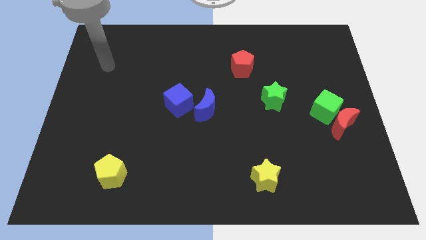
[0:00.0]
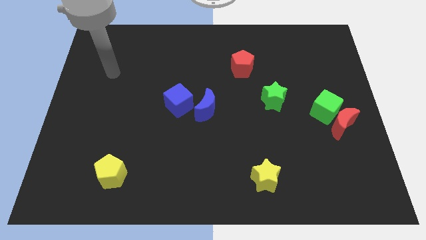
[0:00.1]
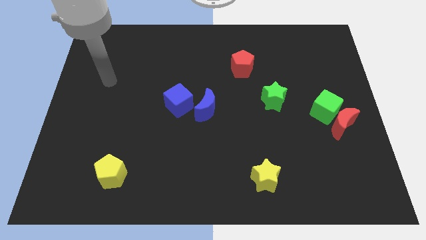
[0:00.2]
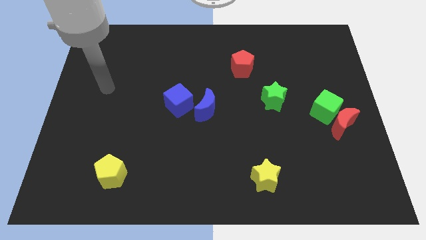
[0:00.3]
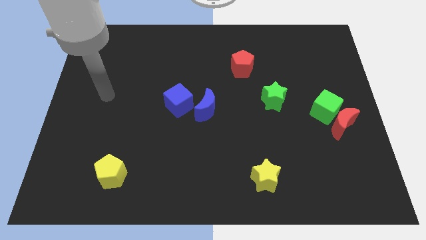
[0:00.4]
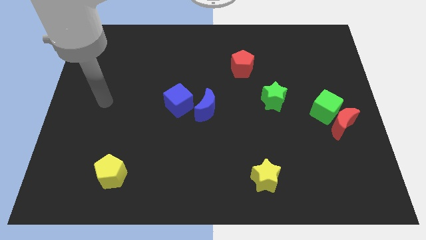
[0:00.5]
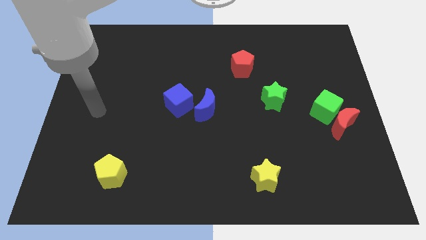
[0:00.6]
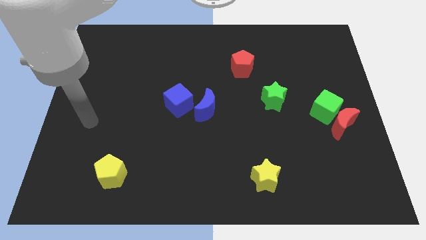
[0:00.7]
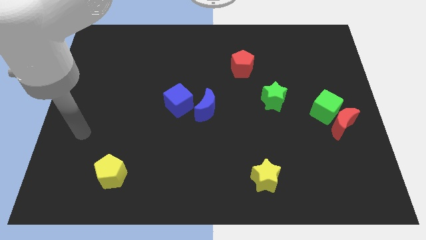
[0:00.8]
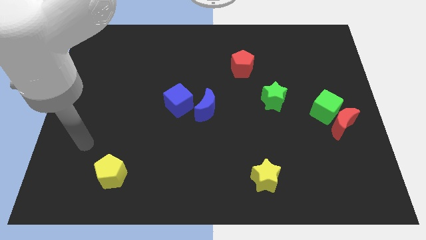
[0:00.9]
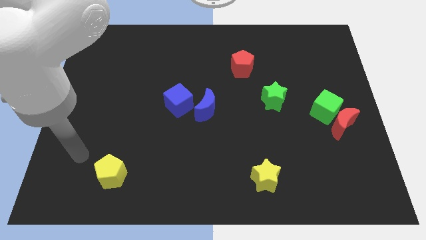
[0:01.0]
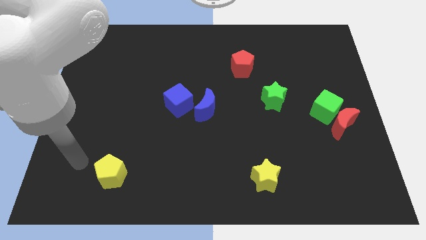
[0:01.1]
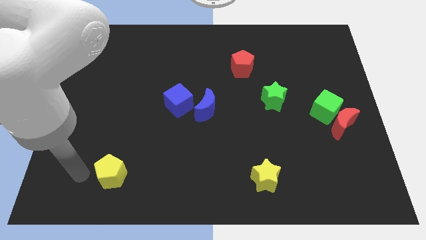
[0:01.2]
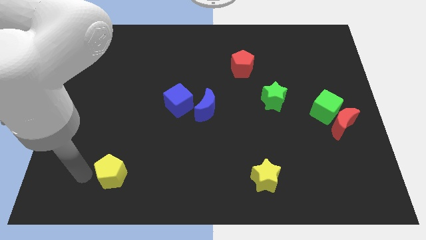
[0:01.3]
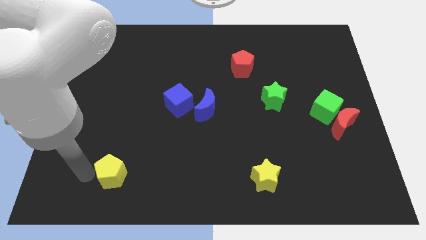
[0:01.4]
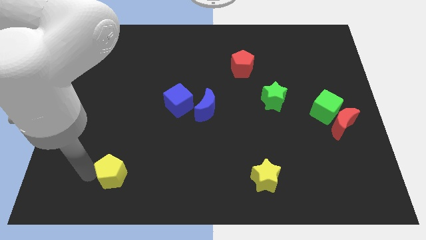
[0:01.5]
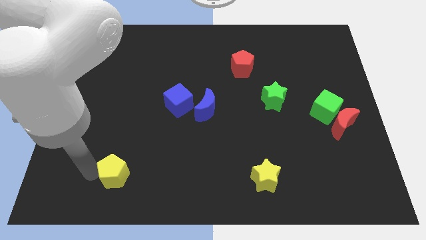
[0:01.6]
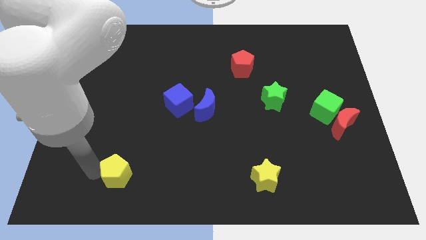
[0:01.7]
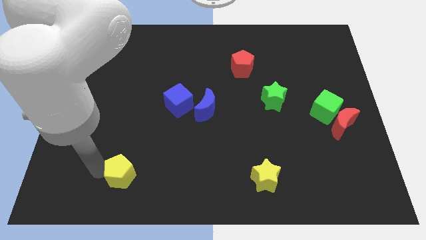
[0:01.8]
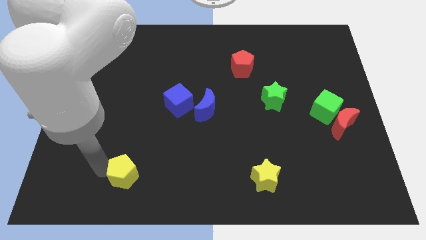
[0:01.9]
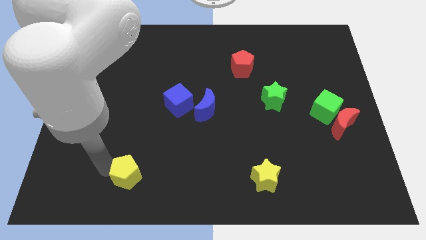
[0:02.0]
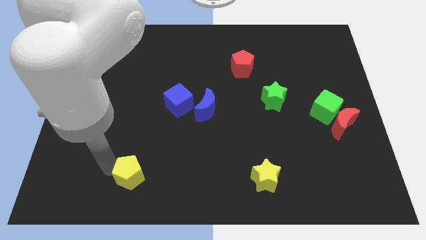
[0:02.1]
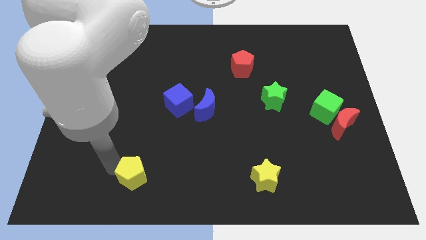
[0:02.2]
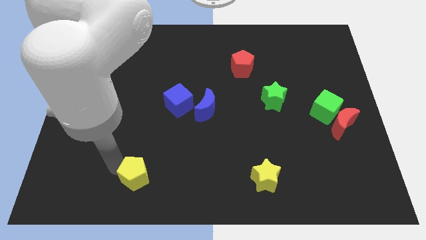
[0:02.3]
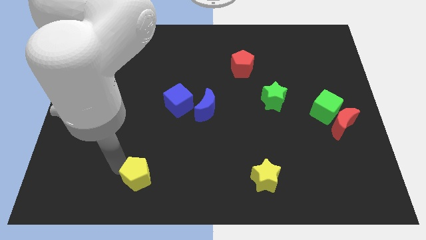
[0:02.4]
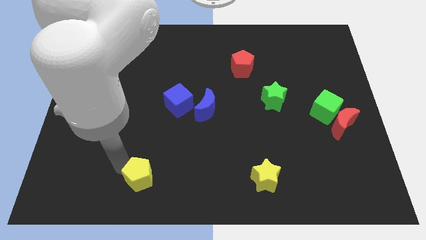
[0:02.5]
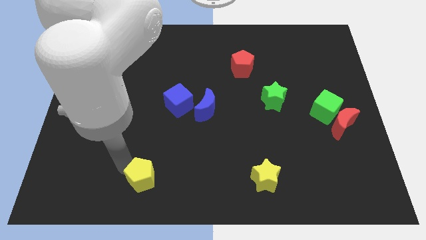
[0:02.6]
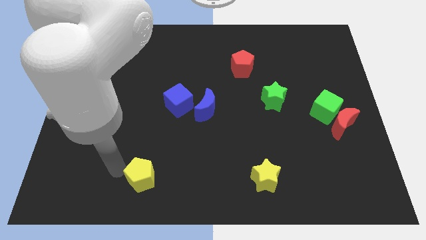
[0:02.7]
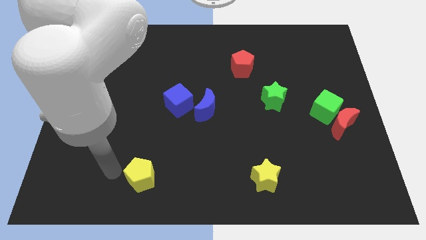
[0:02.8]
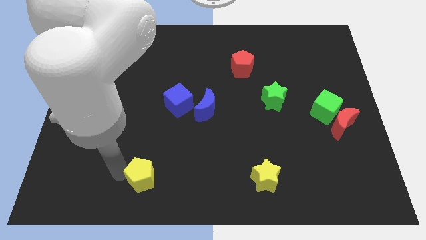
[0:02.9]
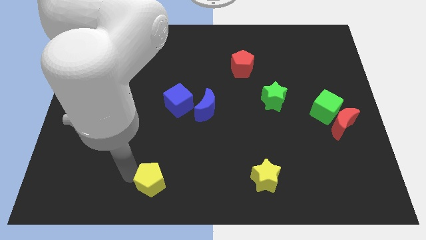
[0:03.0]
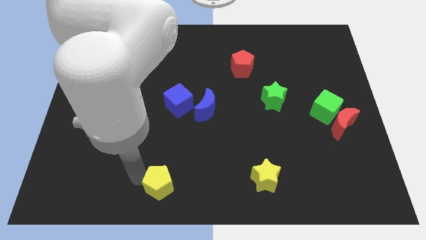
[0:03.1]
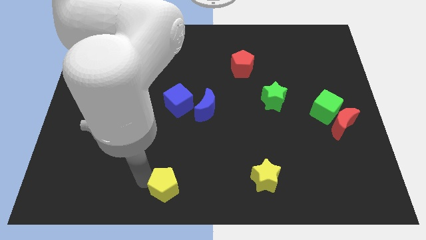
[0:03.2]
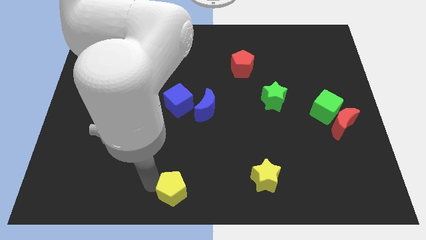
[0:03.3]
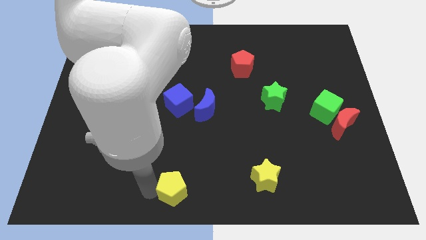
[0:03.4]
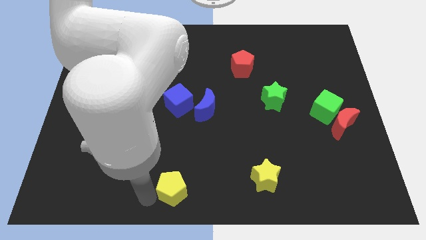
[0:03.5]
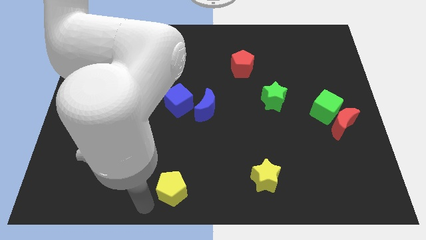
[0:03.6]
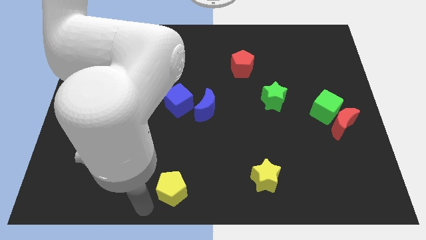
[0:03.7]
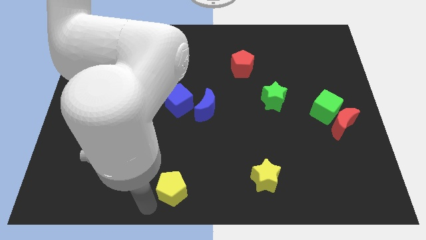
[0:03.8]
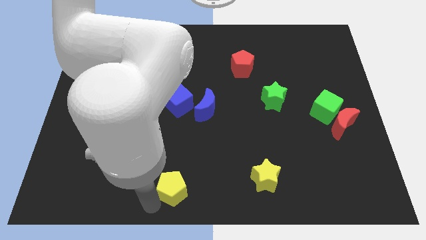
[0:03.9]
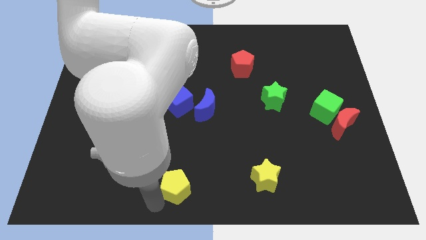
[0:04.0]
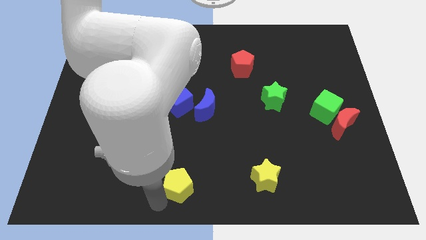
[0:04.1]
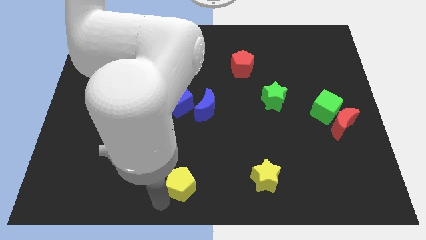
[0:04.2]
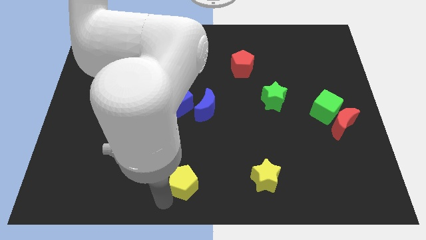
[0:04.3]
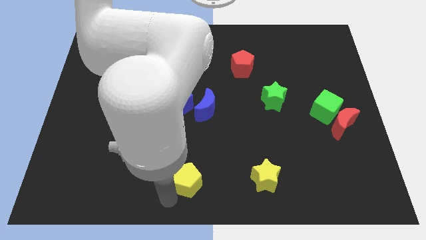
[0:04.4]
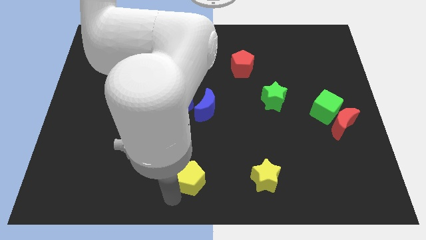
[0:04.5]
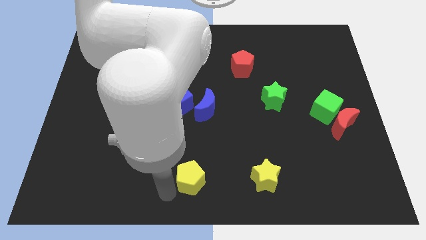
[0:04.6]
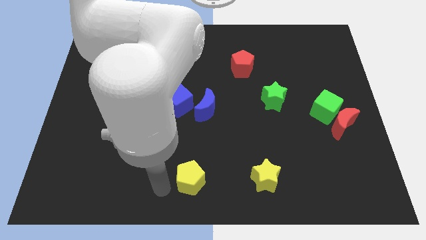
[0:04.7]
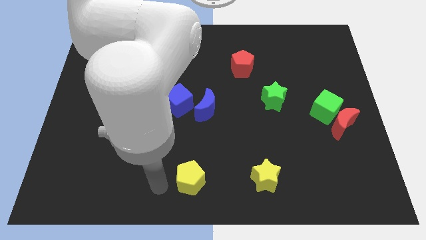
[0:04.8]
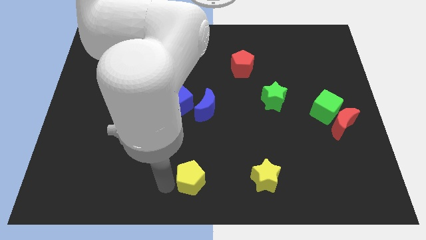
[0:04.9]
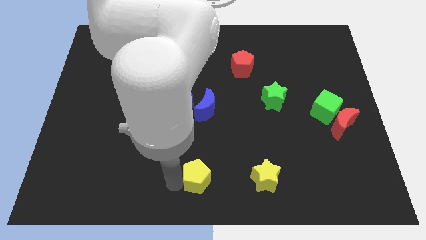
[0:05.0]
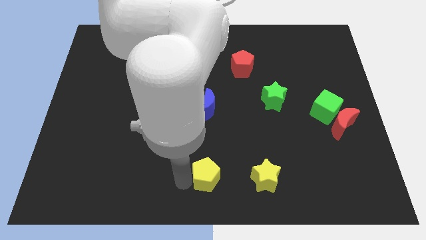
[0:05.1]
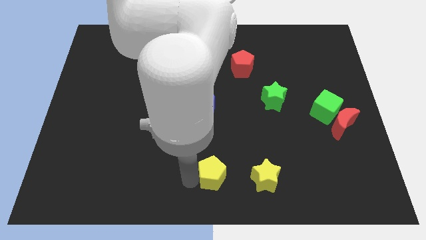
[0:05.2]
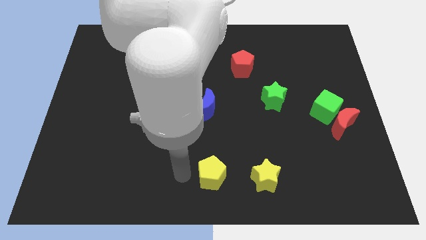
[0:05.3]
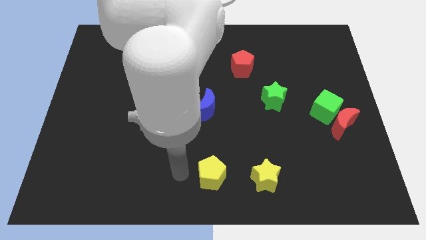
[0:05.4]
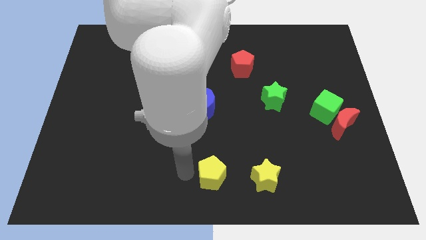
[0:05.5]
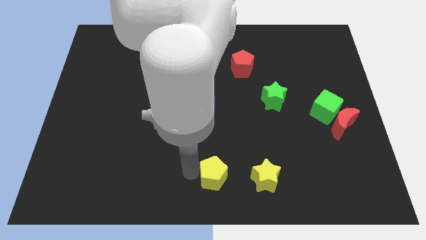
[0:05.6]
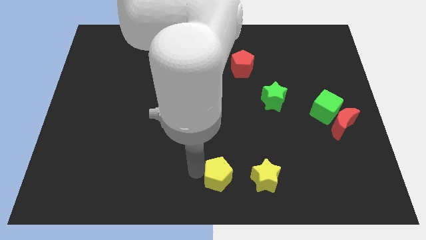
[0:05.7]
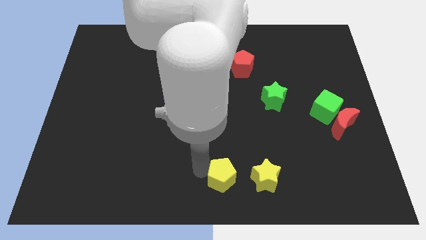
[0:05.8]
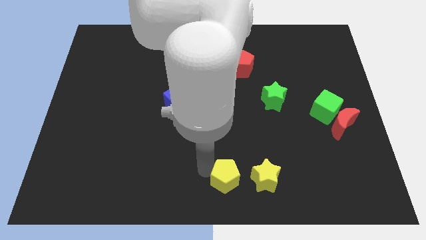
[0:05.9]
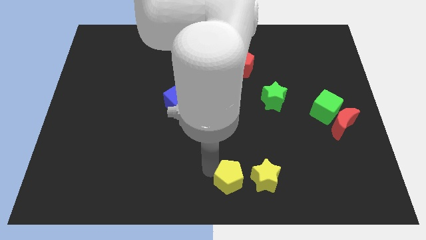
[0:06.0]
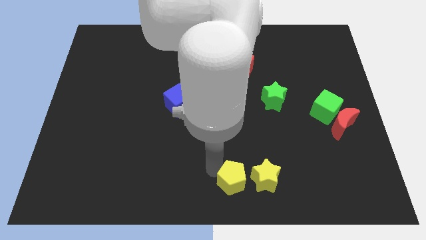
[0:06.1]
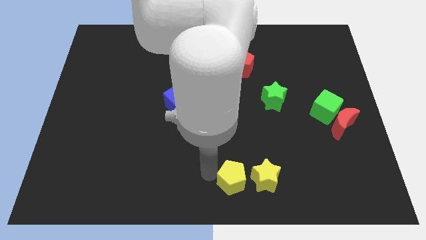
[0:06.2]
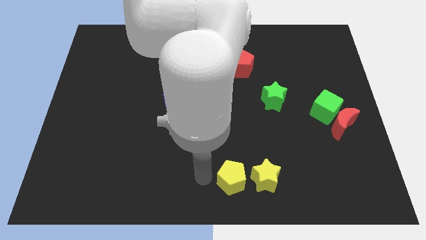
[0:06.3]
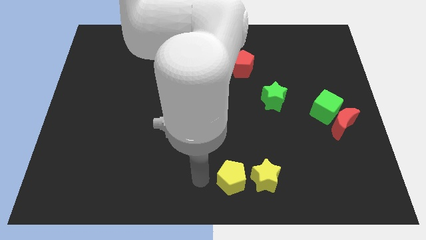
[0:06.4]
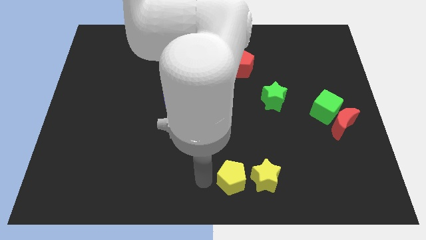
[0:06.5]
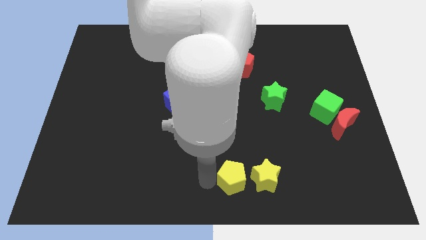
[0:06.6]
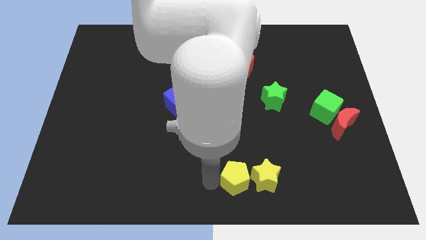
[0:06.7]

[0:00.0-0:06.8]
move the yellow pentagon to the yellow star
